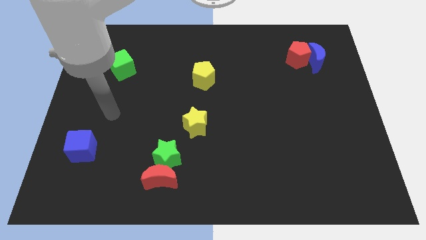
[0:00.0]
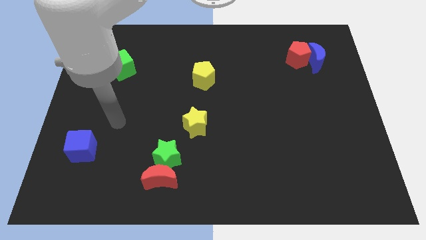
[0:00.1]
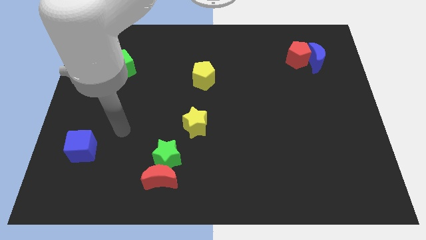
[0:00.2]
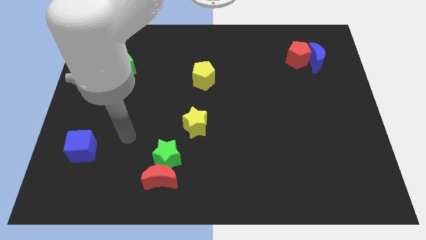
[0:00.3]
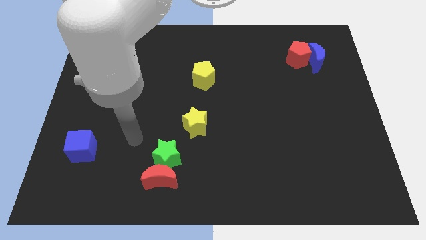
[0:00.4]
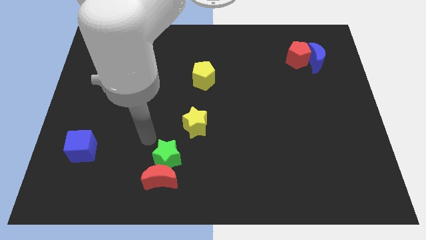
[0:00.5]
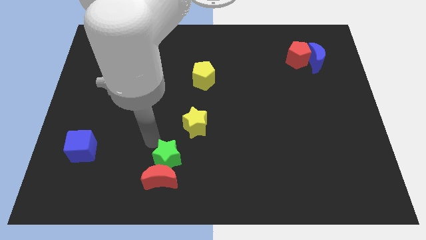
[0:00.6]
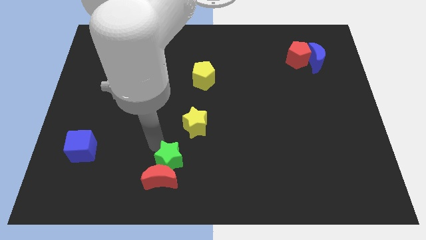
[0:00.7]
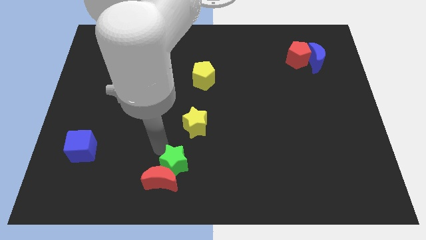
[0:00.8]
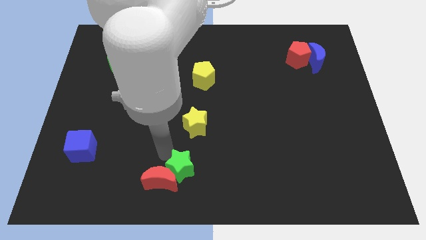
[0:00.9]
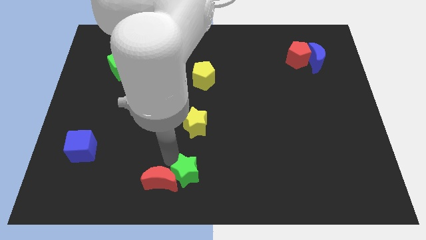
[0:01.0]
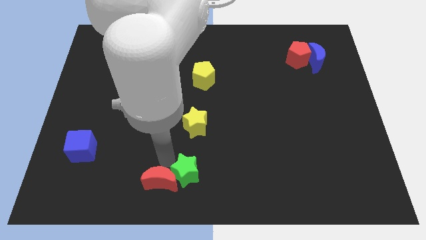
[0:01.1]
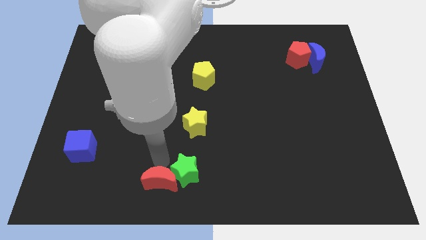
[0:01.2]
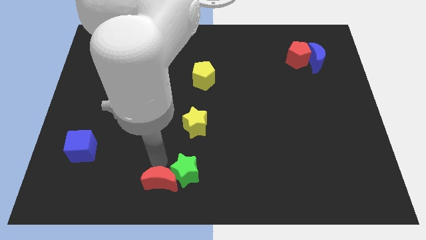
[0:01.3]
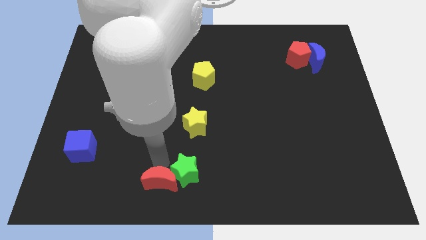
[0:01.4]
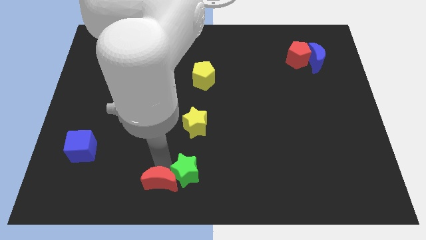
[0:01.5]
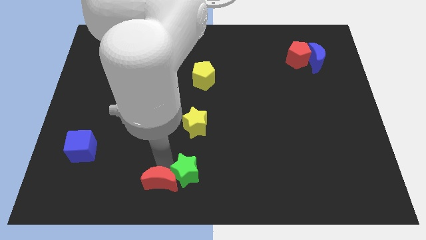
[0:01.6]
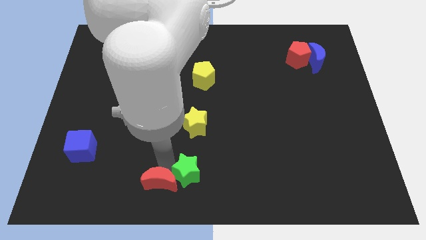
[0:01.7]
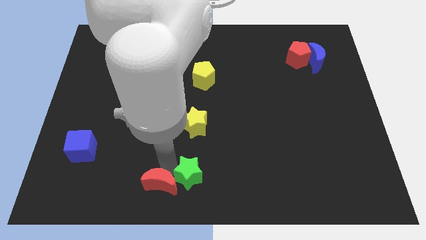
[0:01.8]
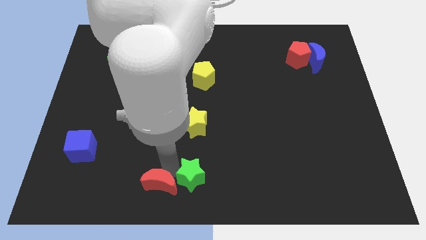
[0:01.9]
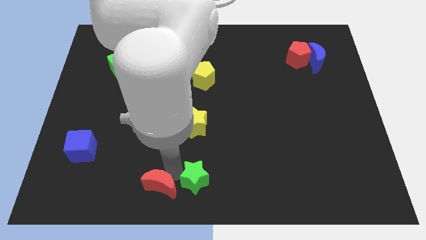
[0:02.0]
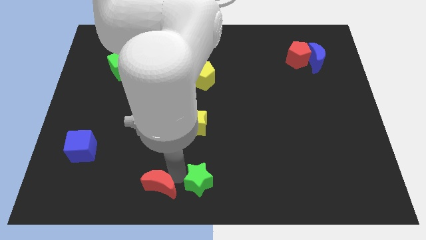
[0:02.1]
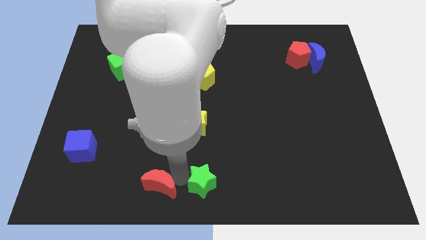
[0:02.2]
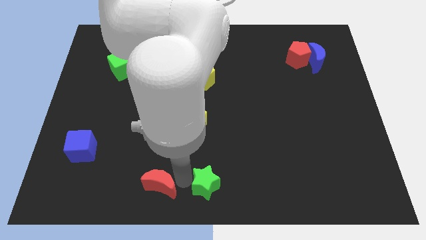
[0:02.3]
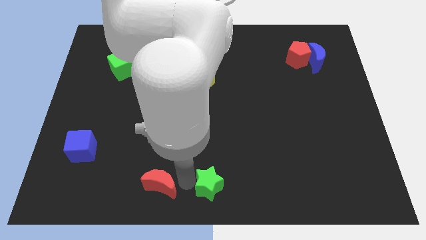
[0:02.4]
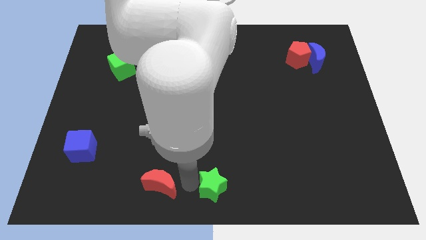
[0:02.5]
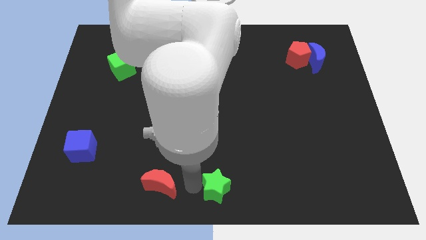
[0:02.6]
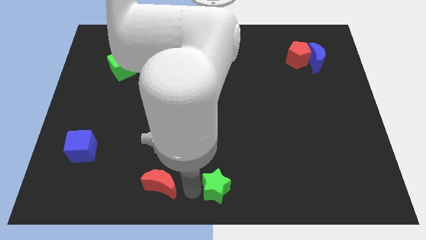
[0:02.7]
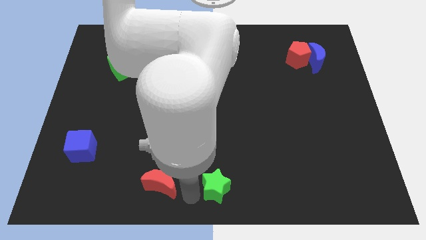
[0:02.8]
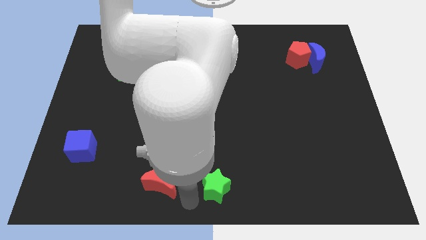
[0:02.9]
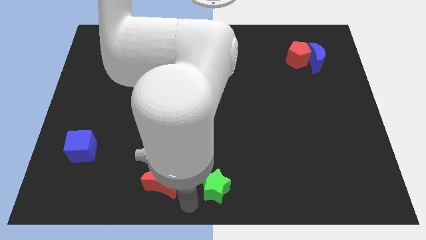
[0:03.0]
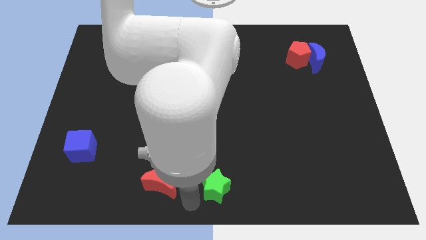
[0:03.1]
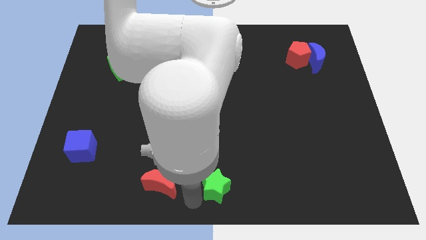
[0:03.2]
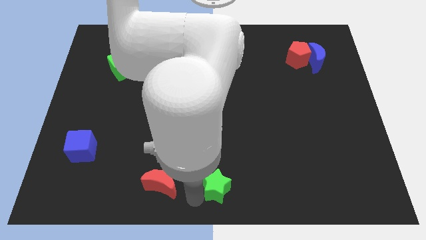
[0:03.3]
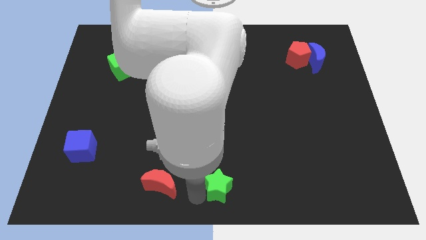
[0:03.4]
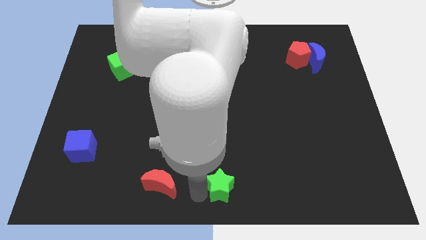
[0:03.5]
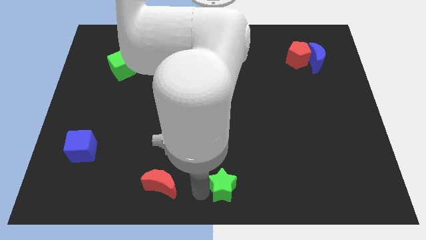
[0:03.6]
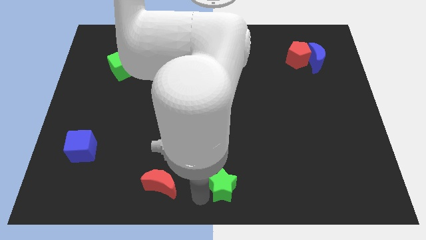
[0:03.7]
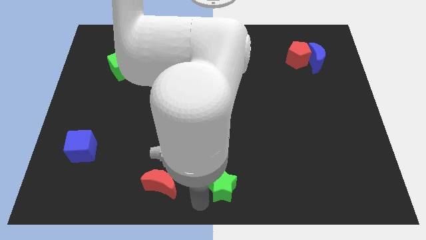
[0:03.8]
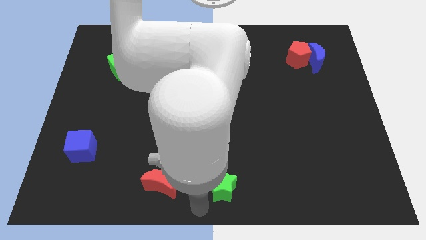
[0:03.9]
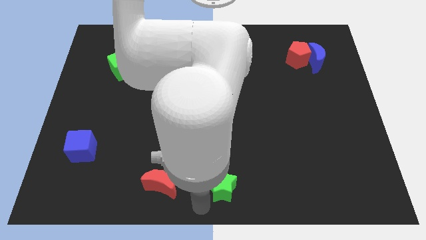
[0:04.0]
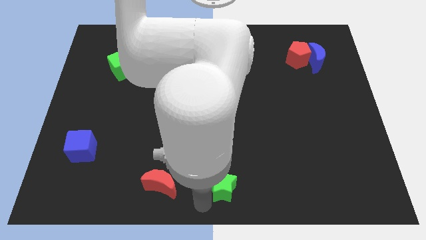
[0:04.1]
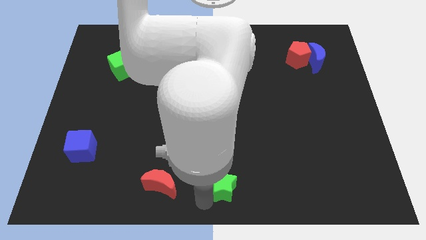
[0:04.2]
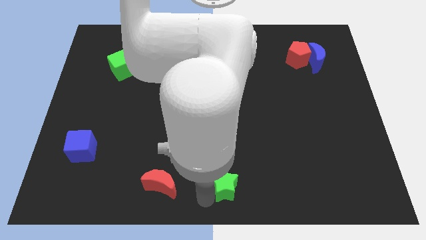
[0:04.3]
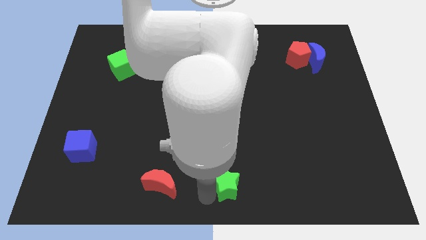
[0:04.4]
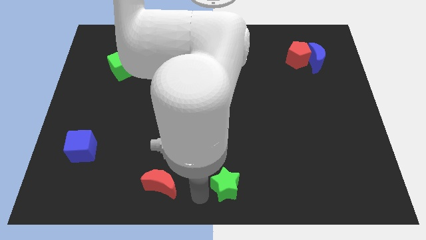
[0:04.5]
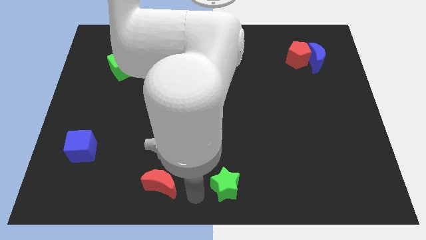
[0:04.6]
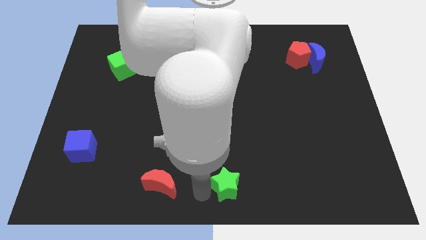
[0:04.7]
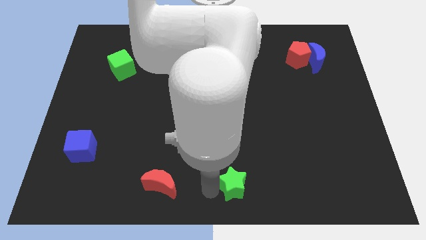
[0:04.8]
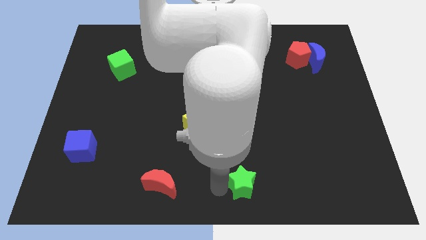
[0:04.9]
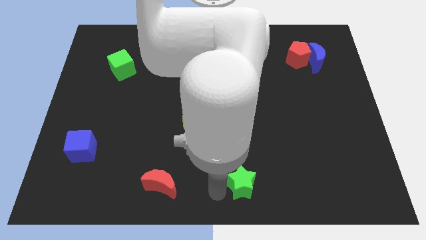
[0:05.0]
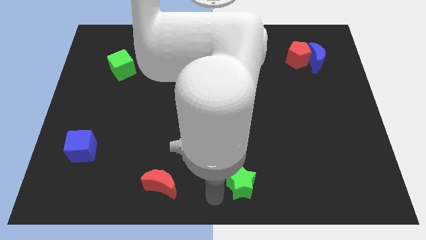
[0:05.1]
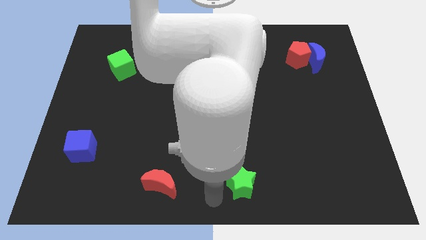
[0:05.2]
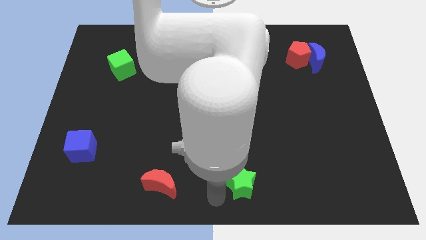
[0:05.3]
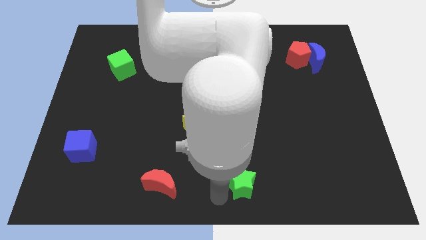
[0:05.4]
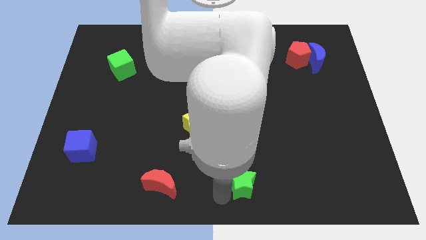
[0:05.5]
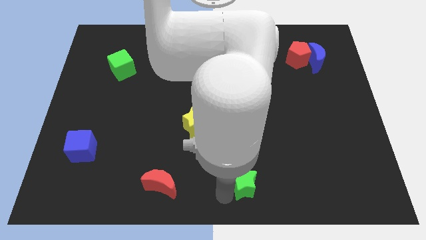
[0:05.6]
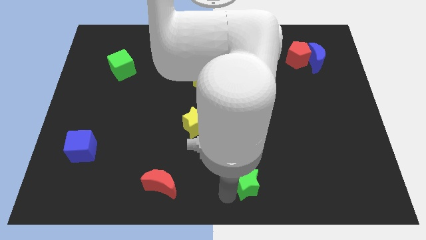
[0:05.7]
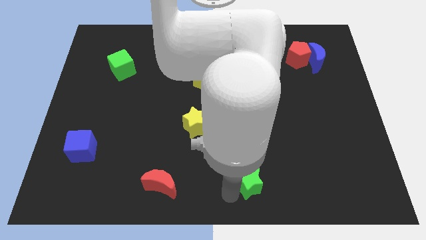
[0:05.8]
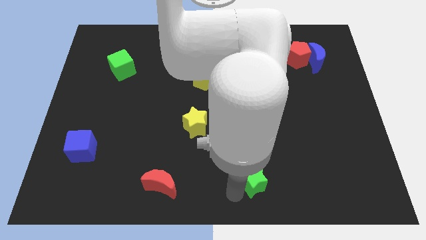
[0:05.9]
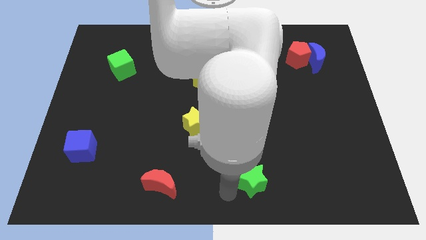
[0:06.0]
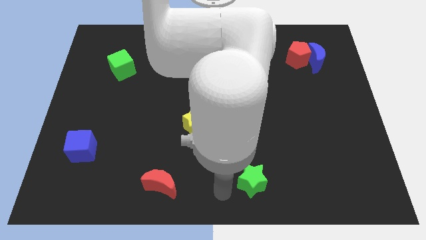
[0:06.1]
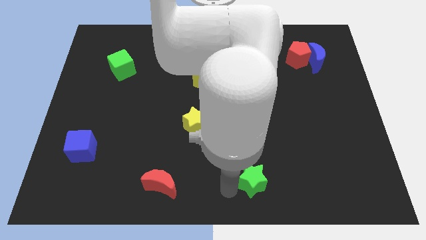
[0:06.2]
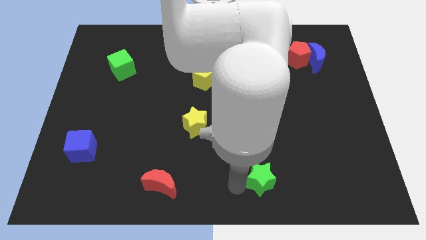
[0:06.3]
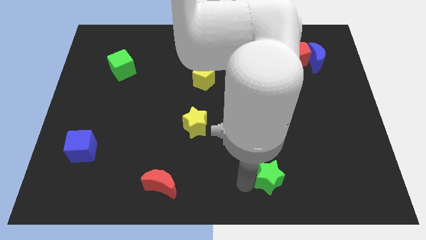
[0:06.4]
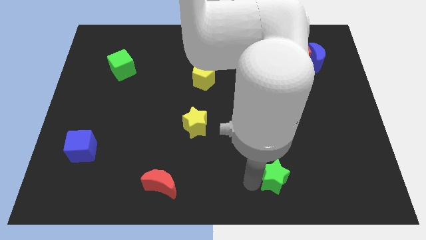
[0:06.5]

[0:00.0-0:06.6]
move the green star to the right

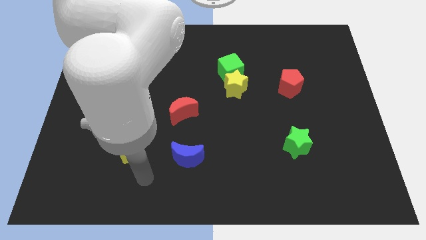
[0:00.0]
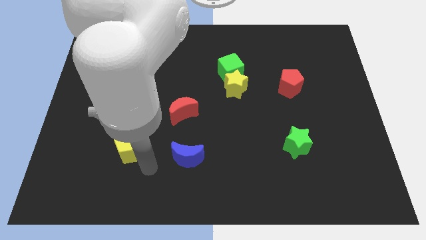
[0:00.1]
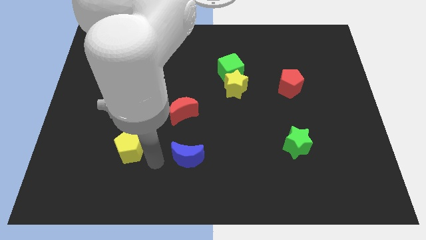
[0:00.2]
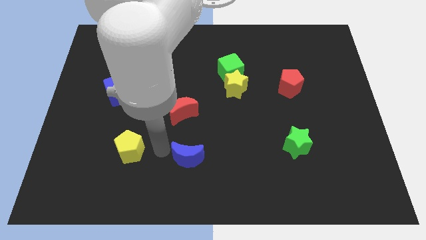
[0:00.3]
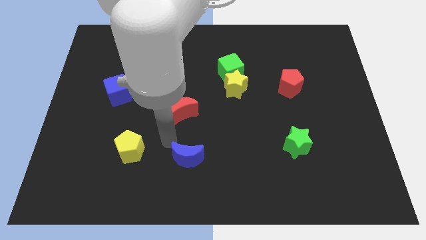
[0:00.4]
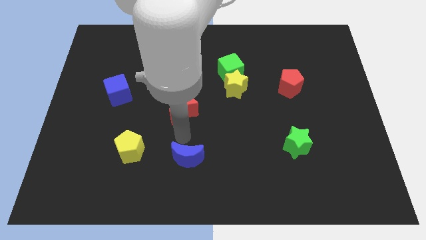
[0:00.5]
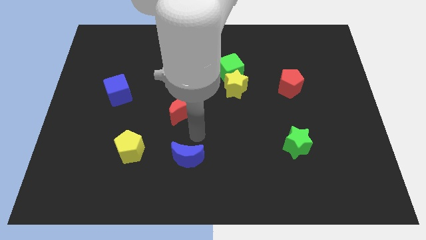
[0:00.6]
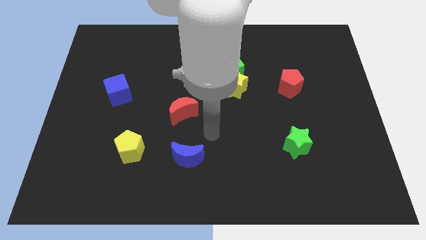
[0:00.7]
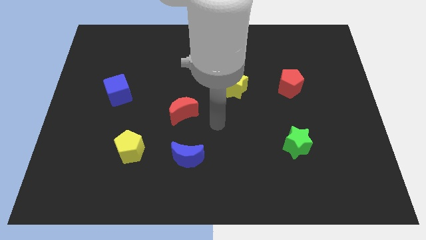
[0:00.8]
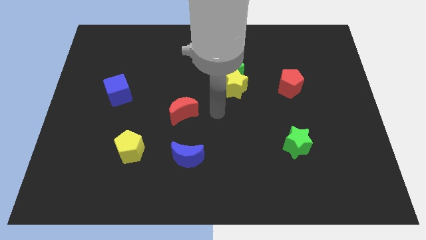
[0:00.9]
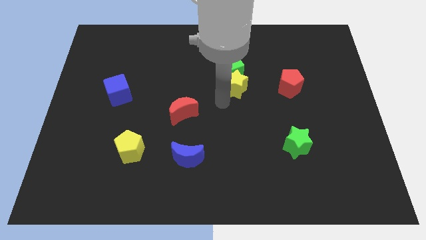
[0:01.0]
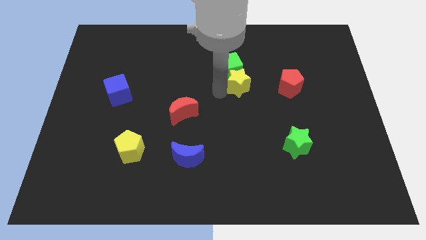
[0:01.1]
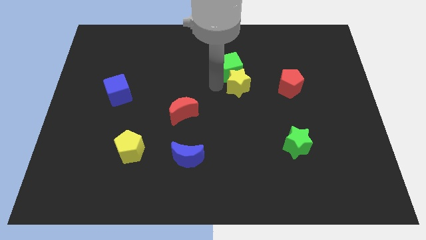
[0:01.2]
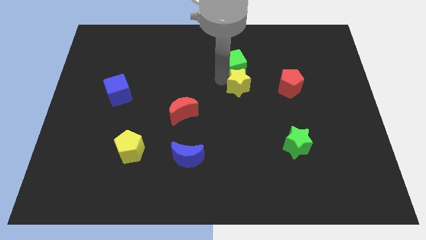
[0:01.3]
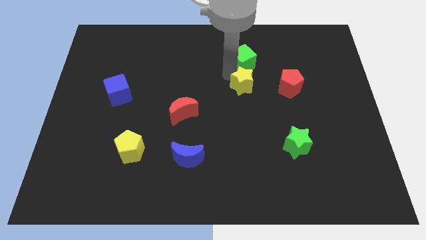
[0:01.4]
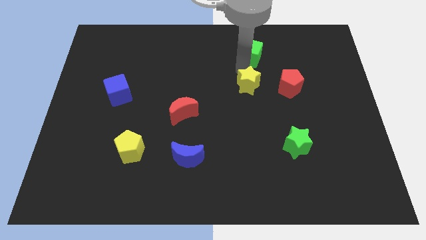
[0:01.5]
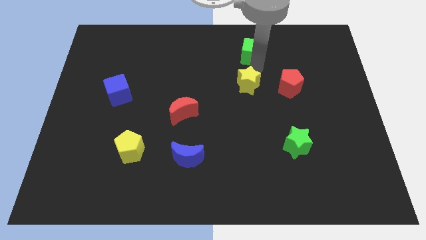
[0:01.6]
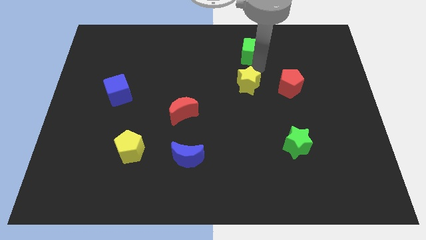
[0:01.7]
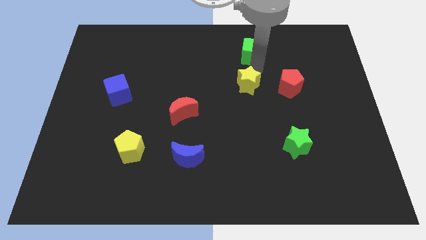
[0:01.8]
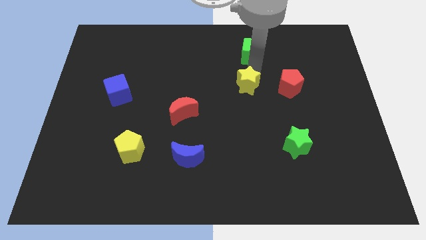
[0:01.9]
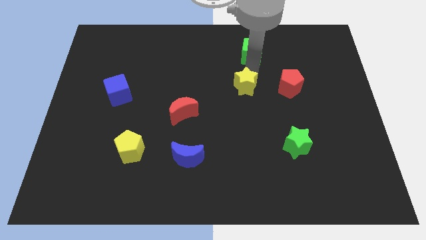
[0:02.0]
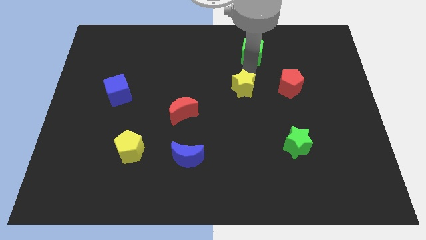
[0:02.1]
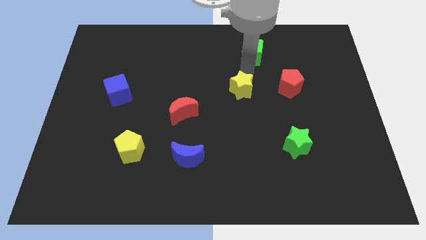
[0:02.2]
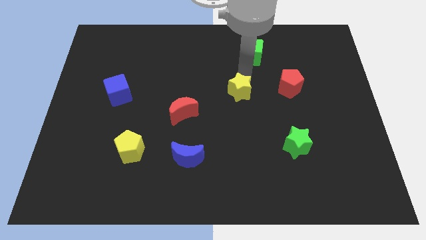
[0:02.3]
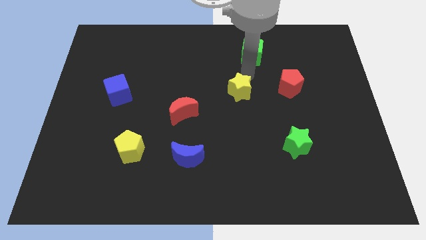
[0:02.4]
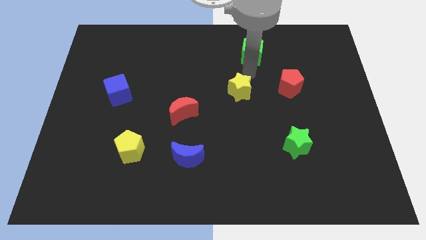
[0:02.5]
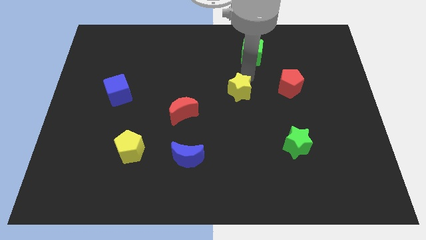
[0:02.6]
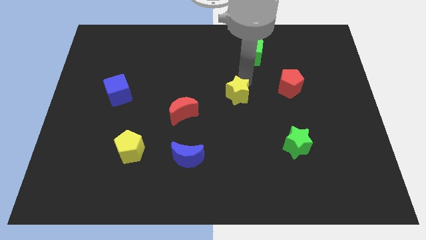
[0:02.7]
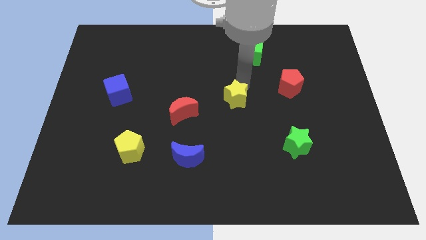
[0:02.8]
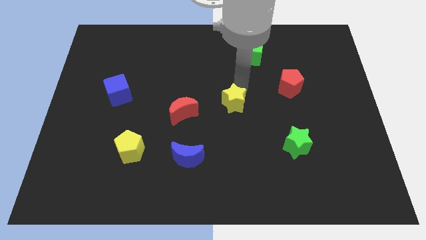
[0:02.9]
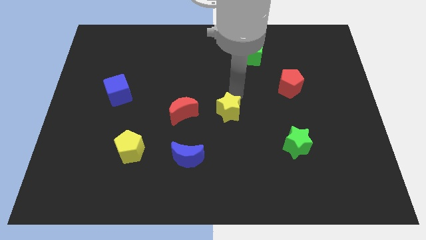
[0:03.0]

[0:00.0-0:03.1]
slide the yellow star a little downwards
